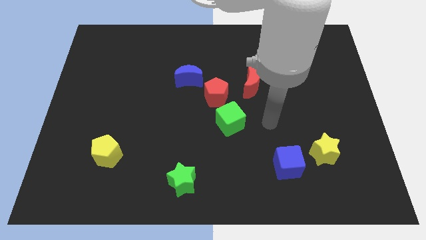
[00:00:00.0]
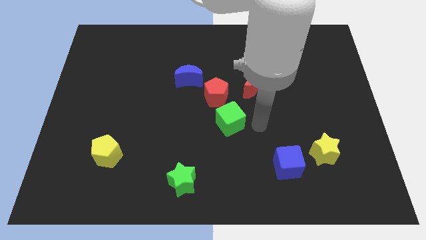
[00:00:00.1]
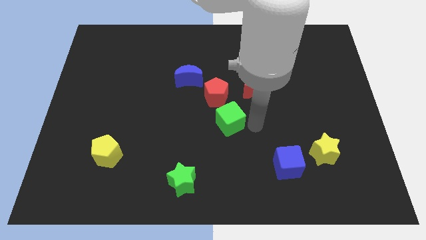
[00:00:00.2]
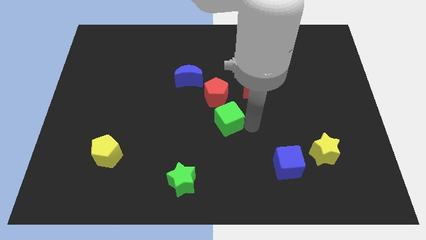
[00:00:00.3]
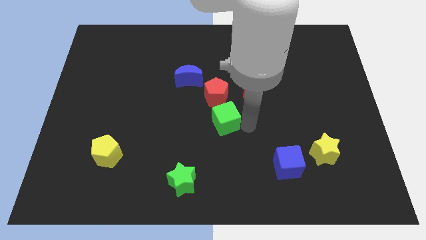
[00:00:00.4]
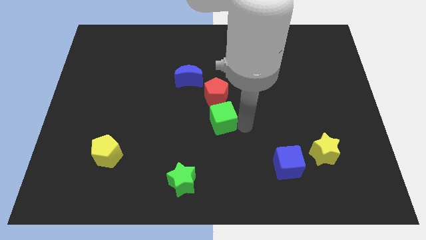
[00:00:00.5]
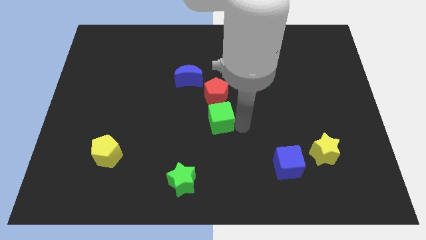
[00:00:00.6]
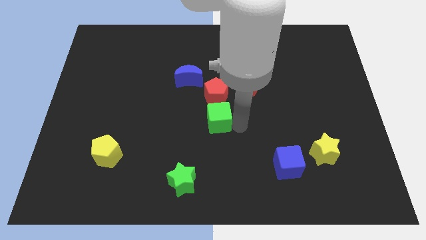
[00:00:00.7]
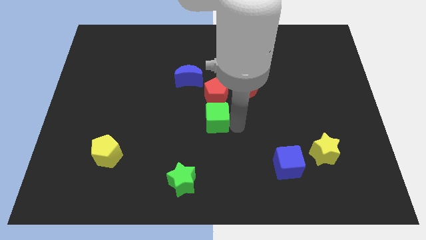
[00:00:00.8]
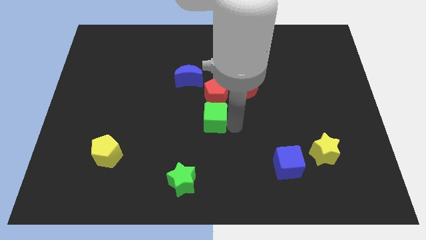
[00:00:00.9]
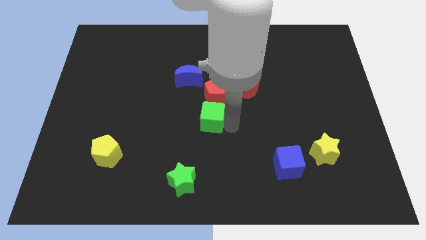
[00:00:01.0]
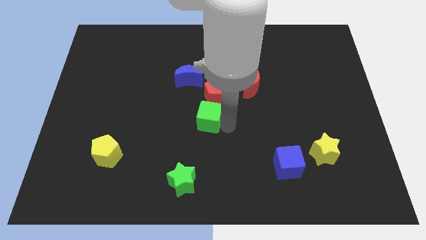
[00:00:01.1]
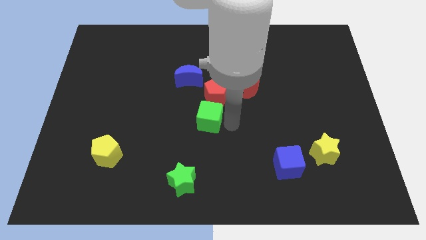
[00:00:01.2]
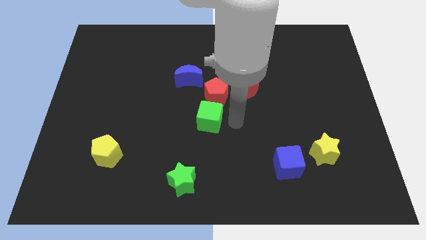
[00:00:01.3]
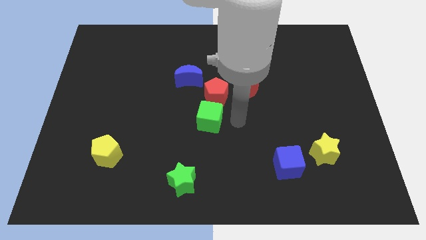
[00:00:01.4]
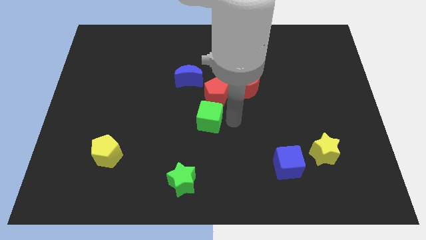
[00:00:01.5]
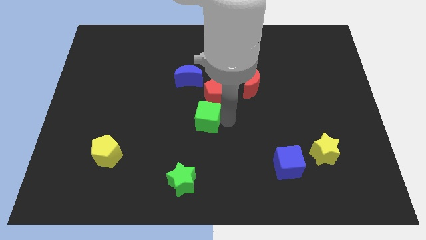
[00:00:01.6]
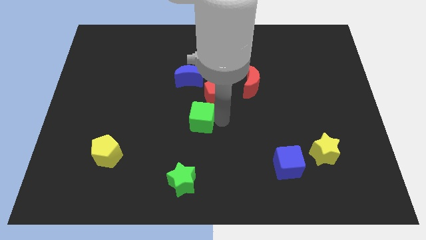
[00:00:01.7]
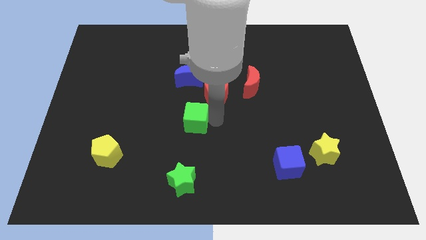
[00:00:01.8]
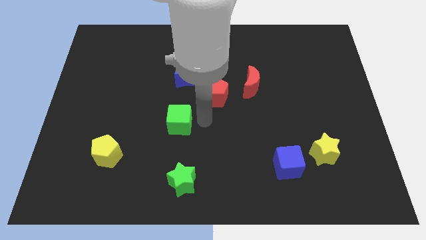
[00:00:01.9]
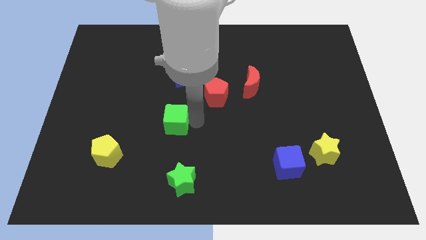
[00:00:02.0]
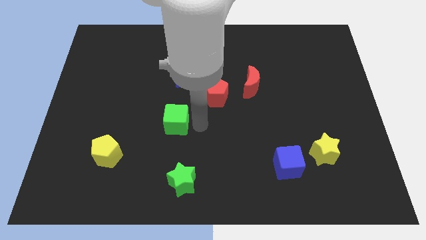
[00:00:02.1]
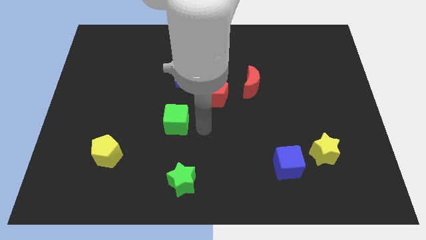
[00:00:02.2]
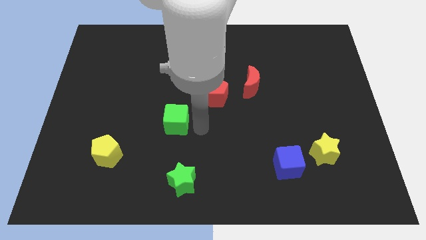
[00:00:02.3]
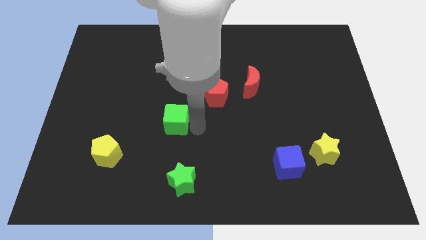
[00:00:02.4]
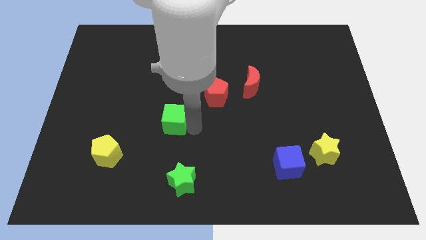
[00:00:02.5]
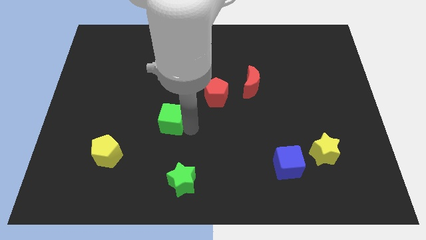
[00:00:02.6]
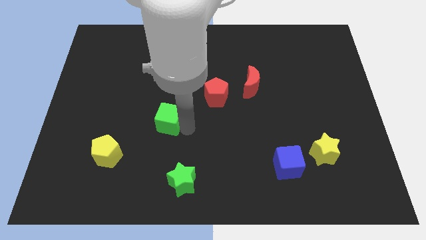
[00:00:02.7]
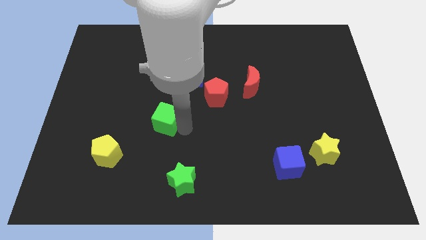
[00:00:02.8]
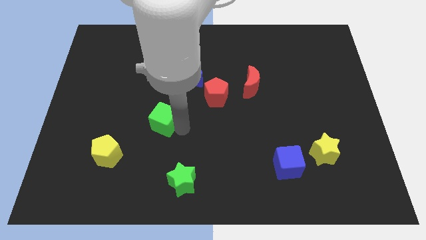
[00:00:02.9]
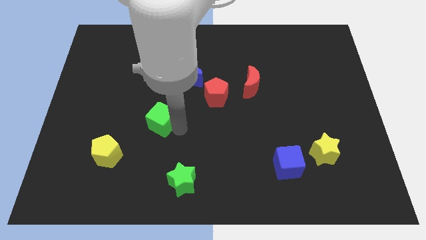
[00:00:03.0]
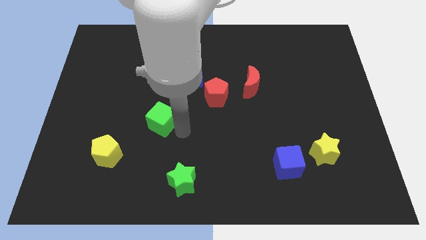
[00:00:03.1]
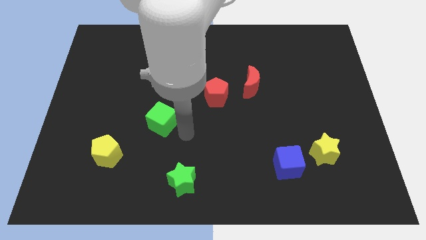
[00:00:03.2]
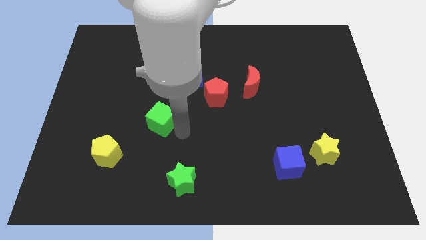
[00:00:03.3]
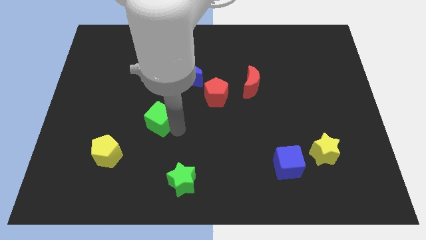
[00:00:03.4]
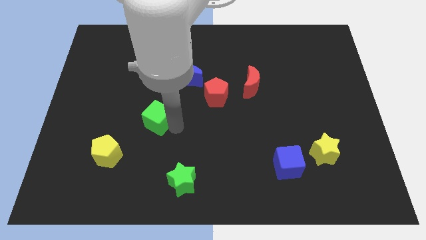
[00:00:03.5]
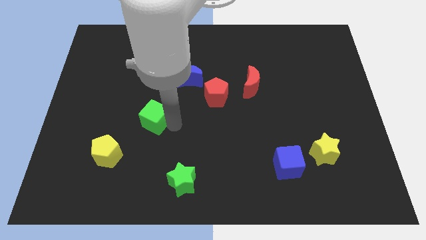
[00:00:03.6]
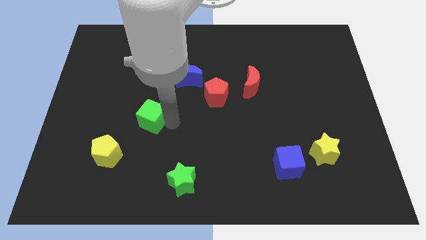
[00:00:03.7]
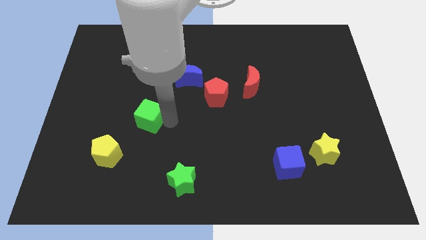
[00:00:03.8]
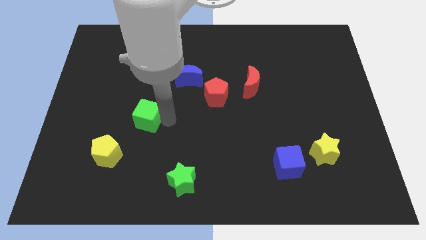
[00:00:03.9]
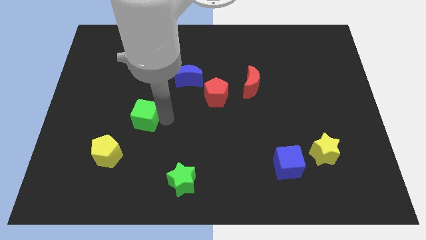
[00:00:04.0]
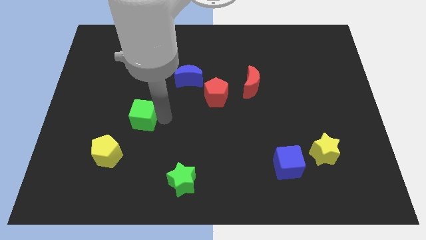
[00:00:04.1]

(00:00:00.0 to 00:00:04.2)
push the green cube left

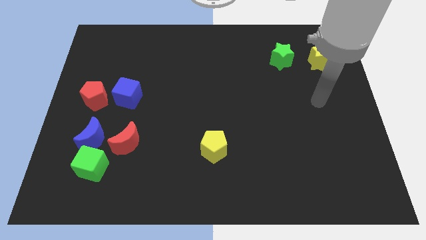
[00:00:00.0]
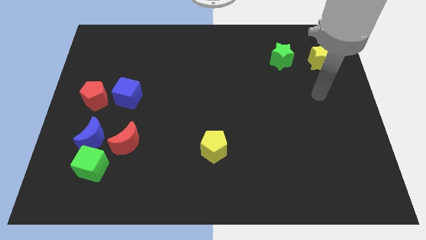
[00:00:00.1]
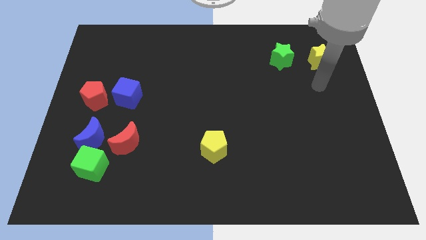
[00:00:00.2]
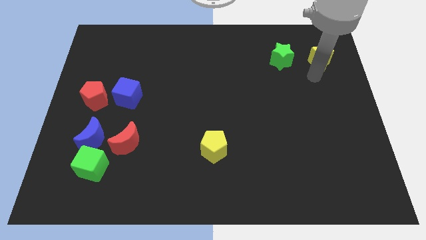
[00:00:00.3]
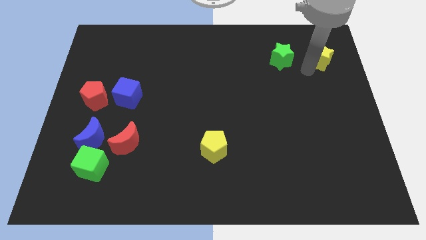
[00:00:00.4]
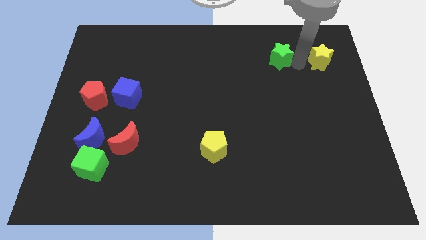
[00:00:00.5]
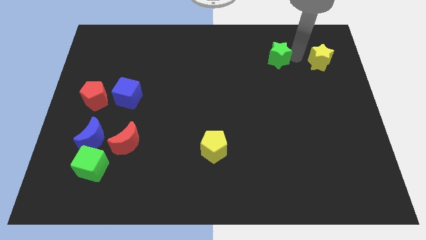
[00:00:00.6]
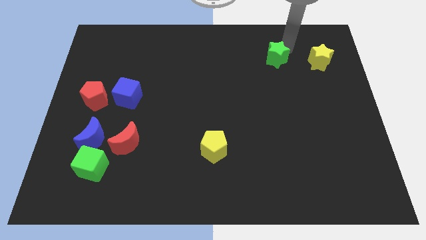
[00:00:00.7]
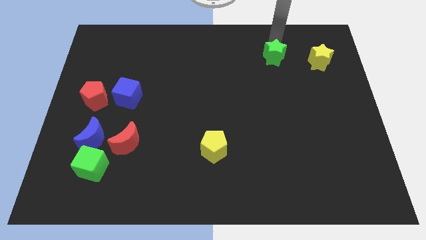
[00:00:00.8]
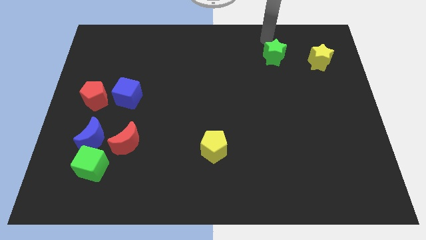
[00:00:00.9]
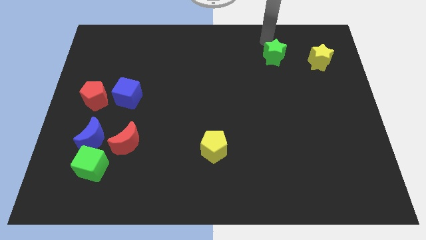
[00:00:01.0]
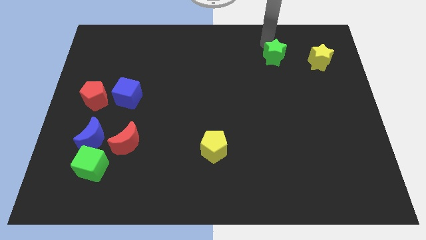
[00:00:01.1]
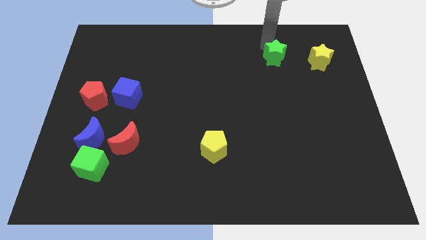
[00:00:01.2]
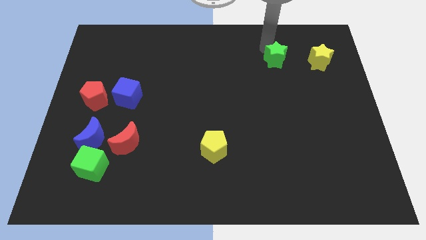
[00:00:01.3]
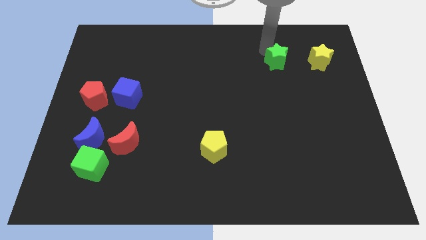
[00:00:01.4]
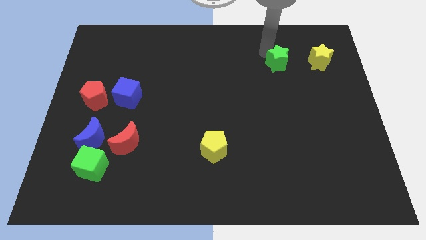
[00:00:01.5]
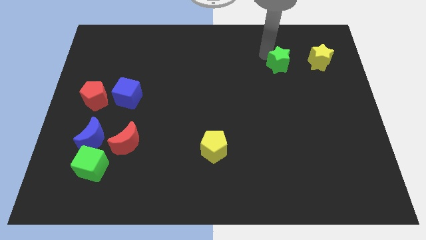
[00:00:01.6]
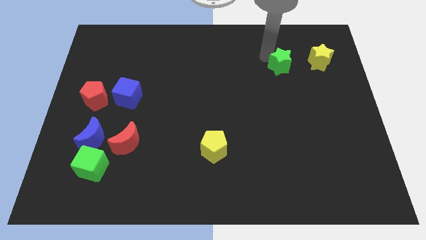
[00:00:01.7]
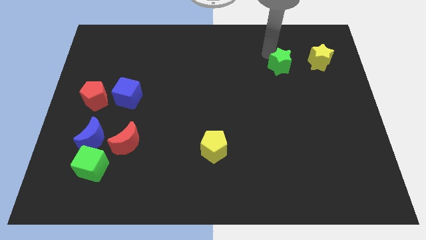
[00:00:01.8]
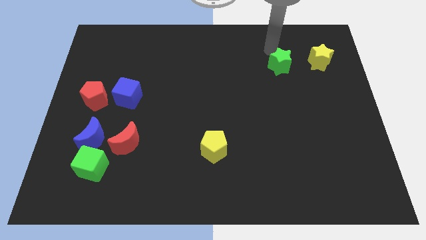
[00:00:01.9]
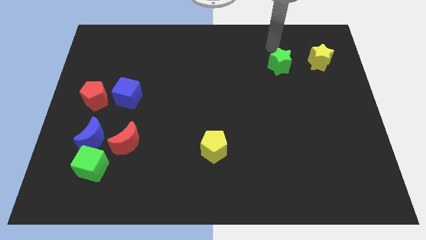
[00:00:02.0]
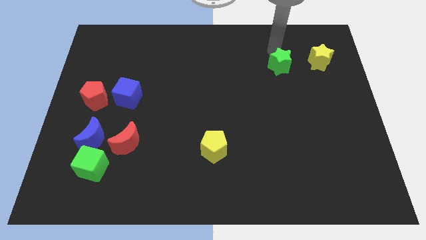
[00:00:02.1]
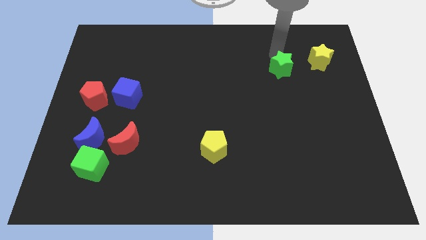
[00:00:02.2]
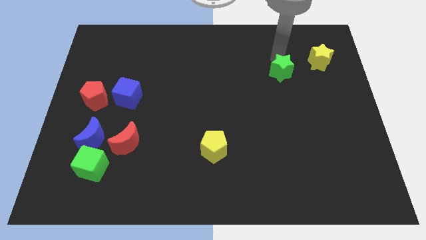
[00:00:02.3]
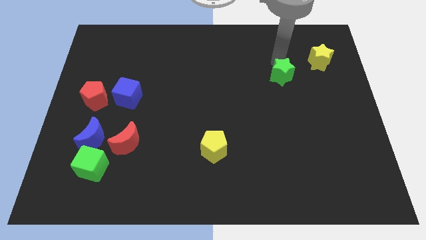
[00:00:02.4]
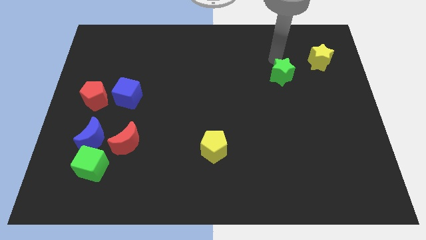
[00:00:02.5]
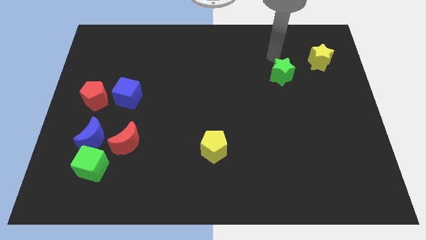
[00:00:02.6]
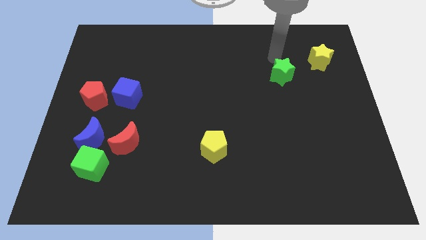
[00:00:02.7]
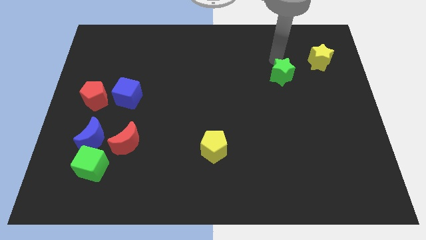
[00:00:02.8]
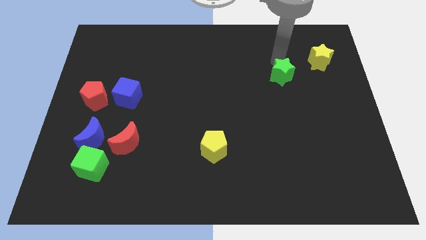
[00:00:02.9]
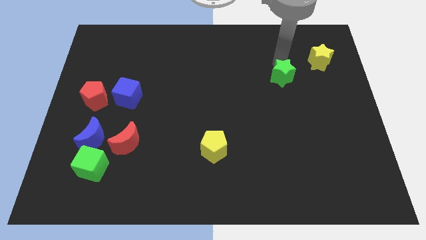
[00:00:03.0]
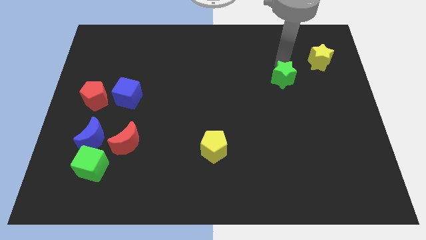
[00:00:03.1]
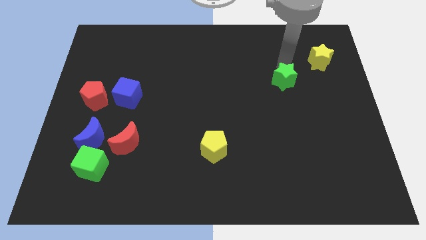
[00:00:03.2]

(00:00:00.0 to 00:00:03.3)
move the green star downwards slightly

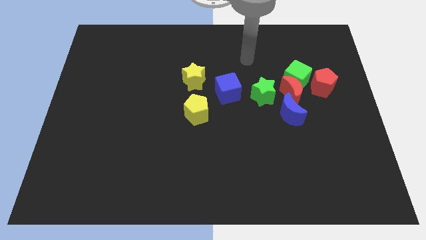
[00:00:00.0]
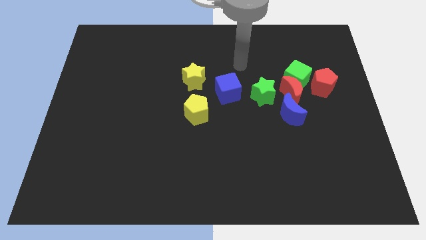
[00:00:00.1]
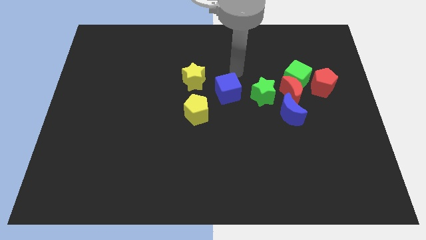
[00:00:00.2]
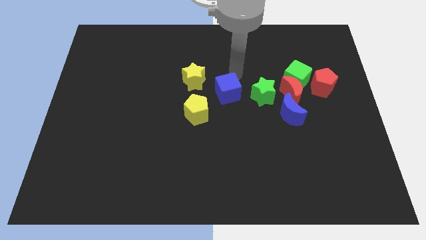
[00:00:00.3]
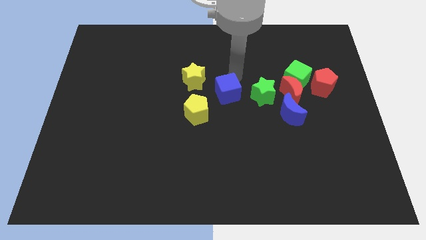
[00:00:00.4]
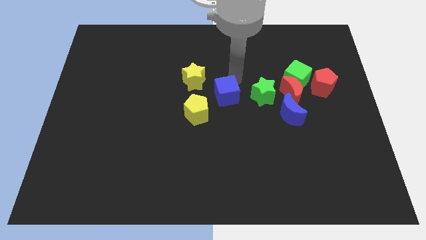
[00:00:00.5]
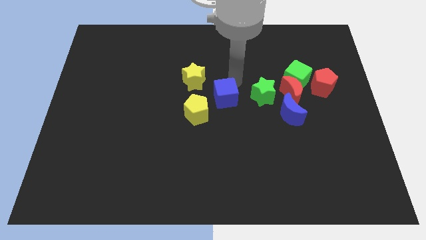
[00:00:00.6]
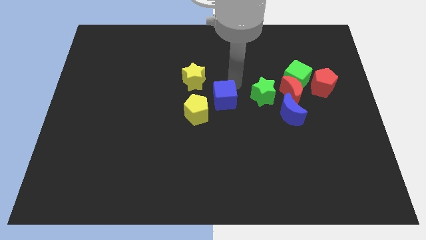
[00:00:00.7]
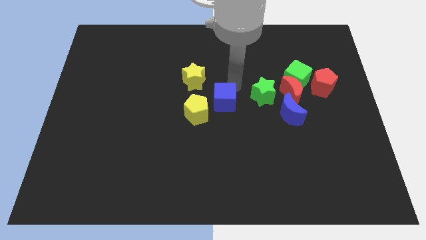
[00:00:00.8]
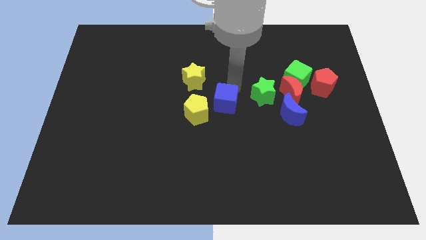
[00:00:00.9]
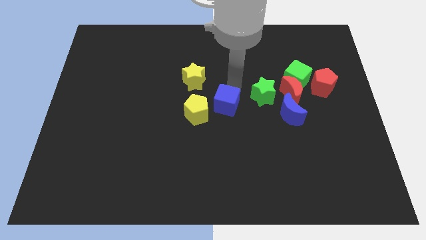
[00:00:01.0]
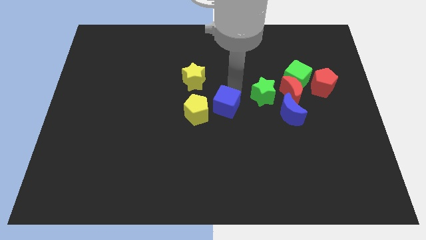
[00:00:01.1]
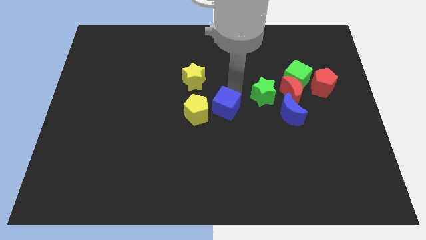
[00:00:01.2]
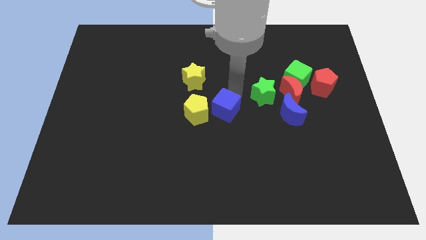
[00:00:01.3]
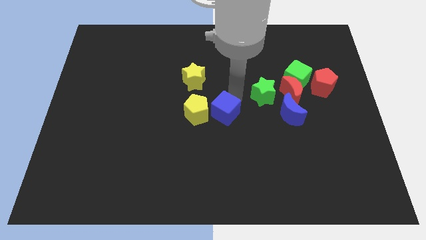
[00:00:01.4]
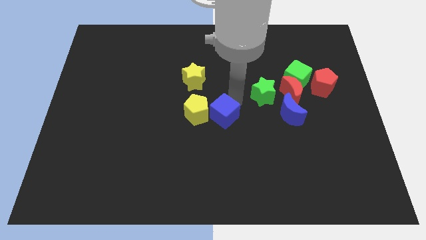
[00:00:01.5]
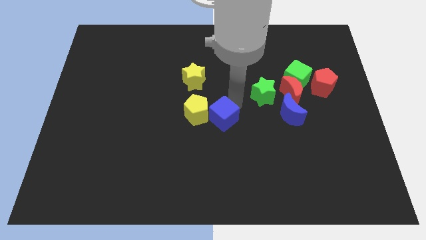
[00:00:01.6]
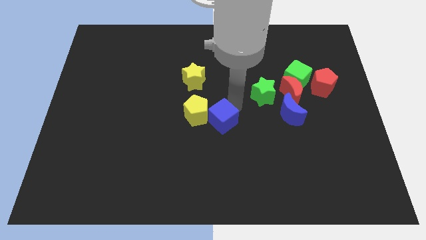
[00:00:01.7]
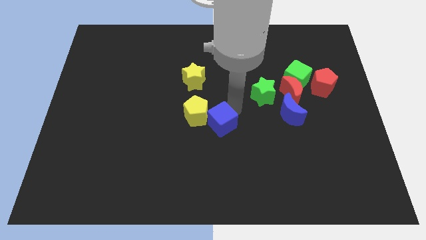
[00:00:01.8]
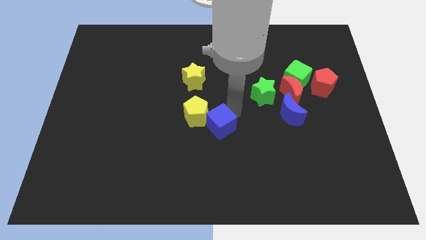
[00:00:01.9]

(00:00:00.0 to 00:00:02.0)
slide the blue cube down and left diagonally a bit
